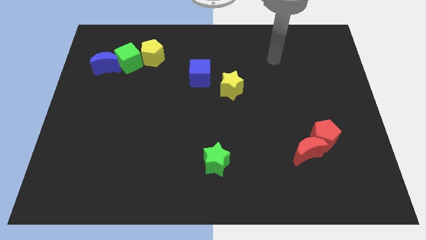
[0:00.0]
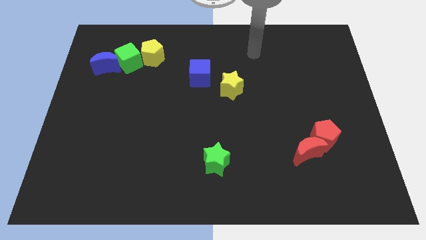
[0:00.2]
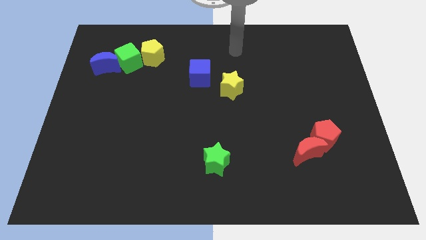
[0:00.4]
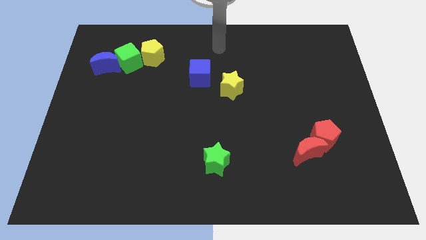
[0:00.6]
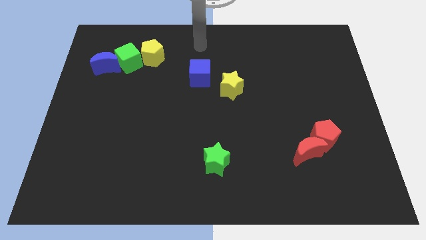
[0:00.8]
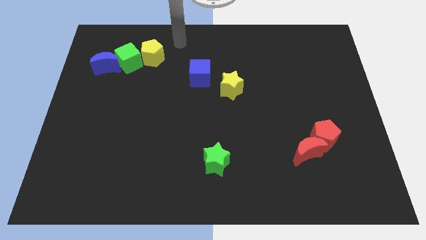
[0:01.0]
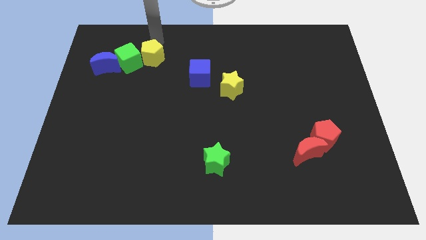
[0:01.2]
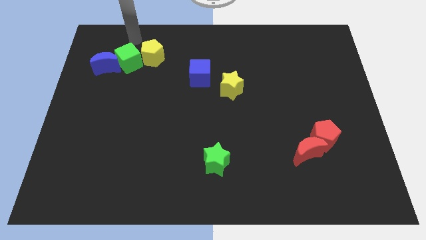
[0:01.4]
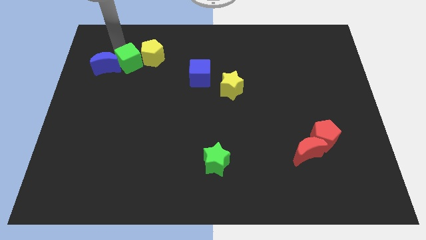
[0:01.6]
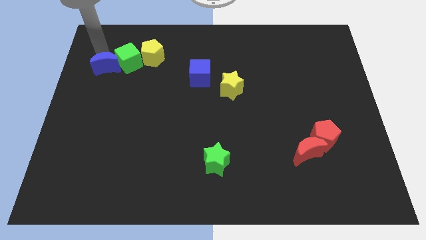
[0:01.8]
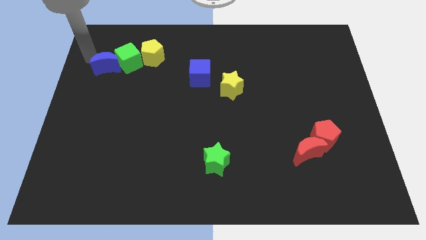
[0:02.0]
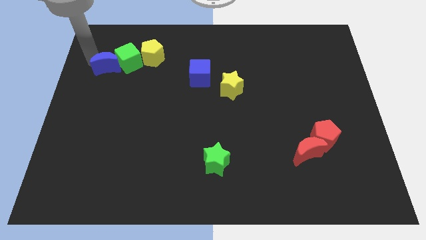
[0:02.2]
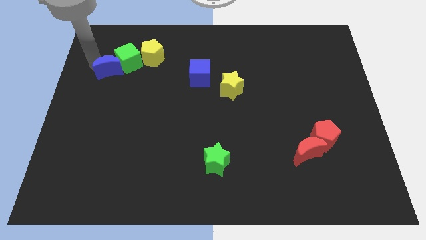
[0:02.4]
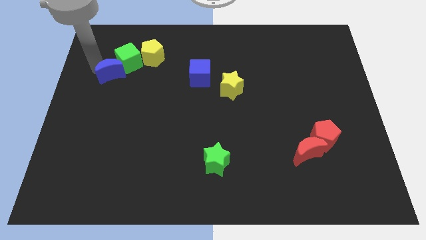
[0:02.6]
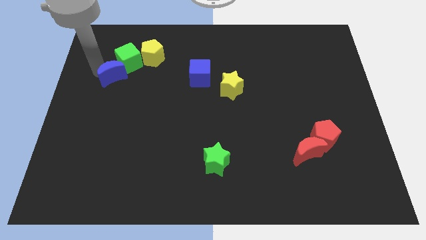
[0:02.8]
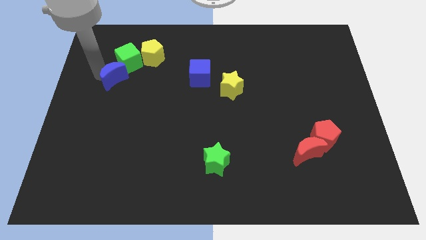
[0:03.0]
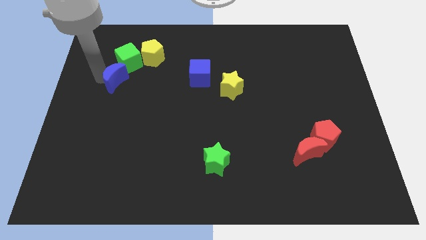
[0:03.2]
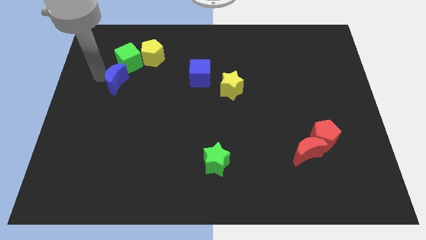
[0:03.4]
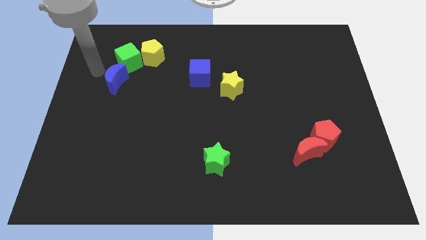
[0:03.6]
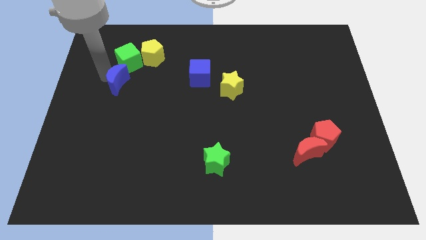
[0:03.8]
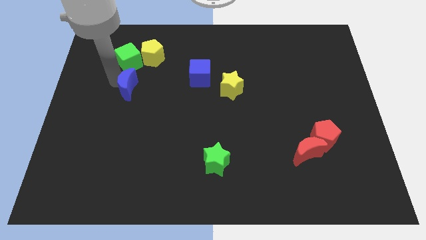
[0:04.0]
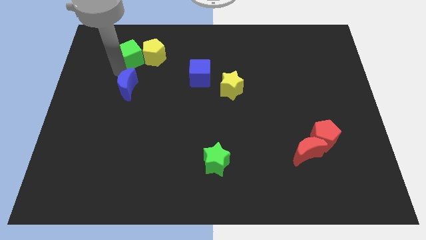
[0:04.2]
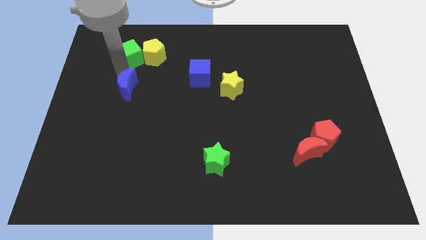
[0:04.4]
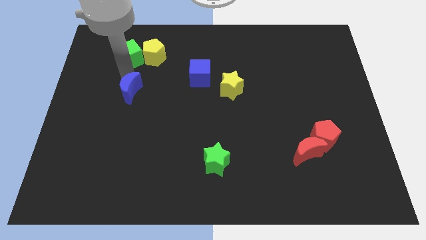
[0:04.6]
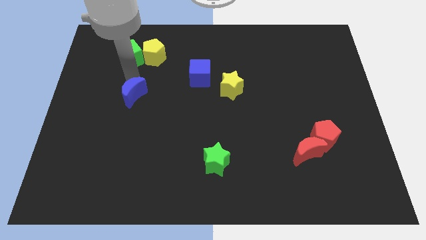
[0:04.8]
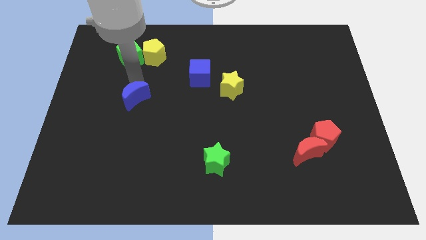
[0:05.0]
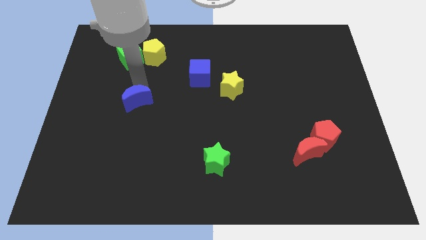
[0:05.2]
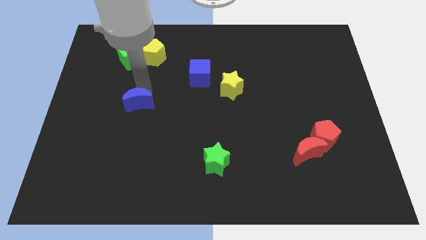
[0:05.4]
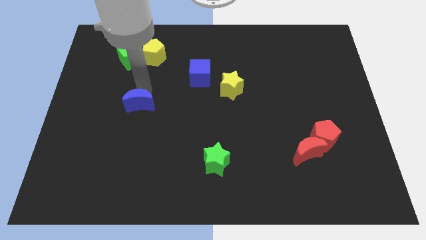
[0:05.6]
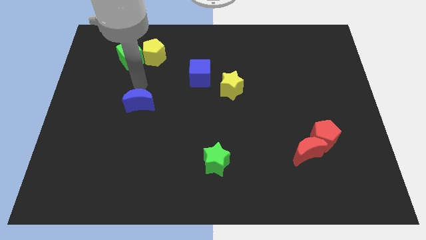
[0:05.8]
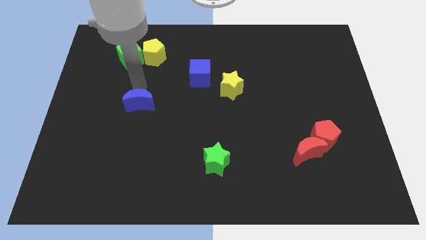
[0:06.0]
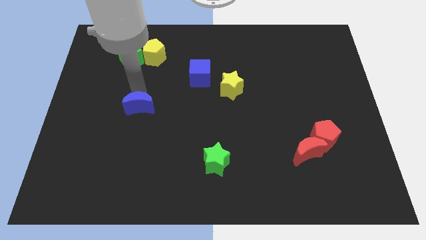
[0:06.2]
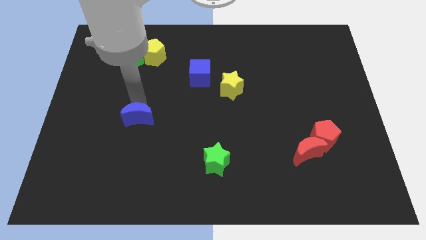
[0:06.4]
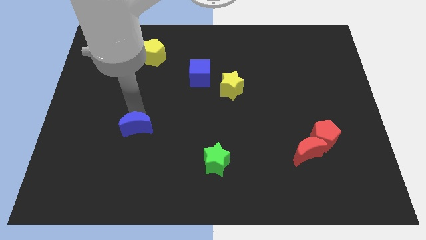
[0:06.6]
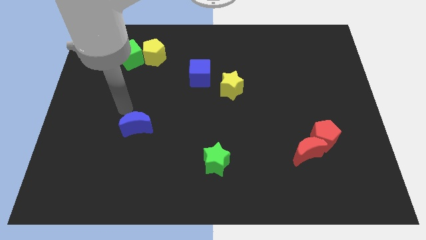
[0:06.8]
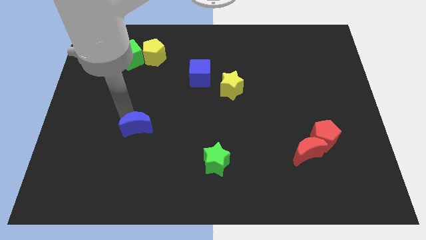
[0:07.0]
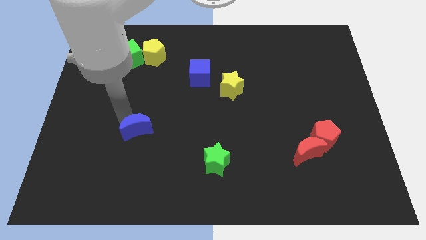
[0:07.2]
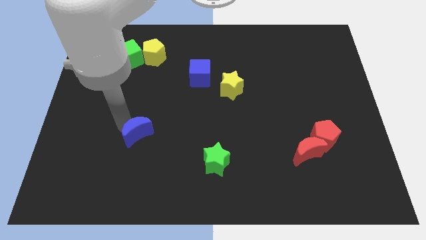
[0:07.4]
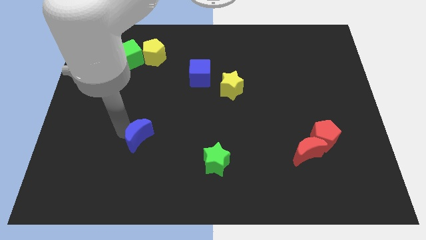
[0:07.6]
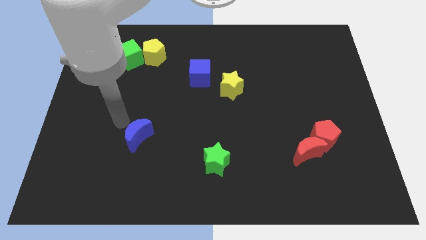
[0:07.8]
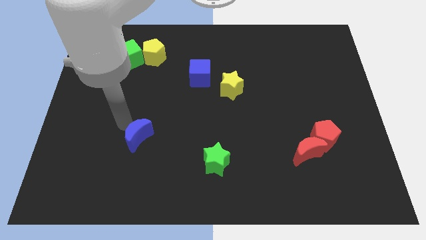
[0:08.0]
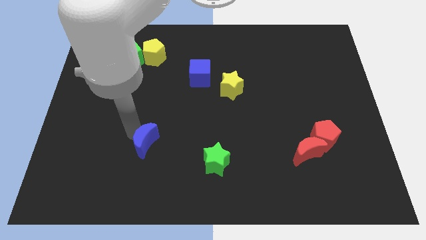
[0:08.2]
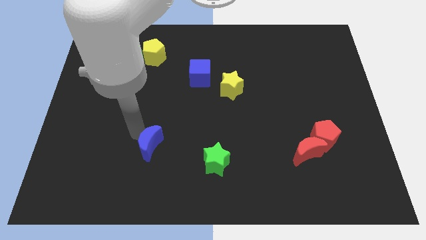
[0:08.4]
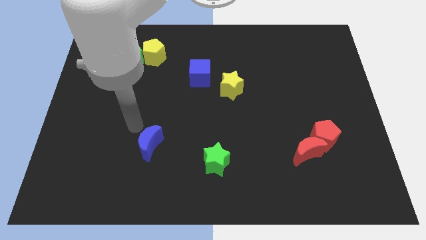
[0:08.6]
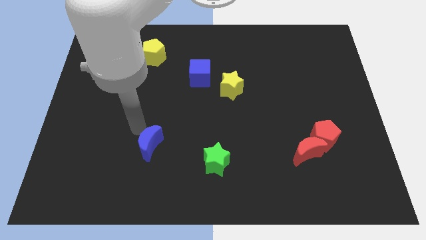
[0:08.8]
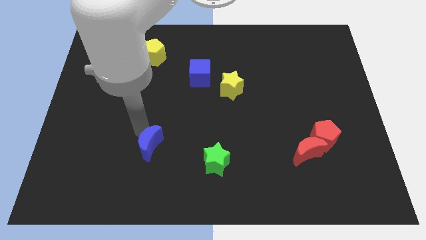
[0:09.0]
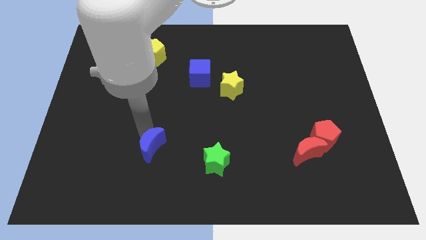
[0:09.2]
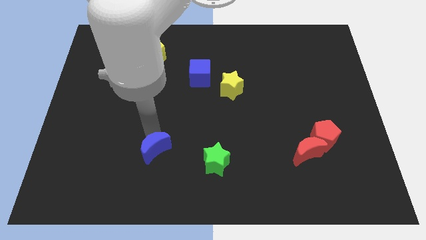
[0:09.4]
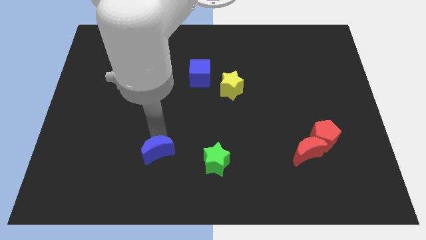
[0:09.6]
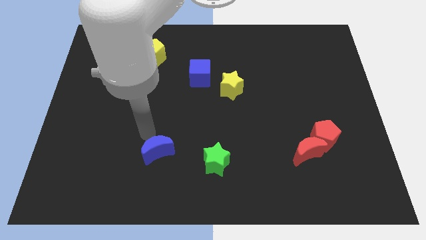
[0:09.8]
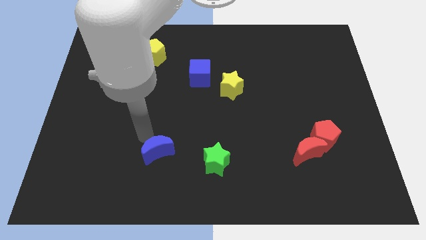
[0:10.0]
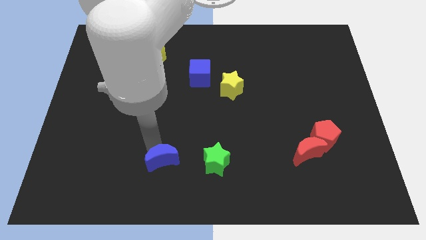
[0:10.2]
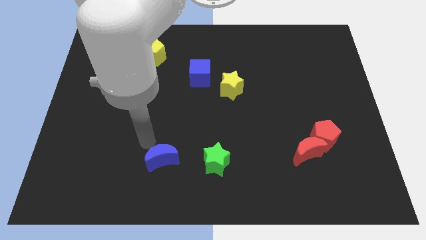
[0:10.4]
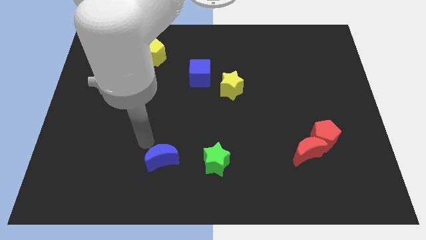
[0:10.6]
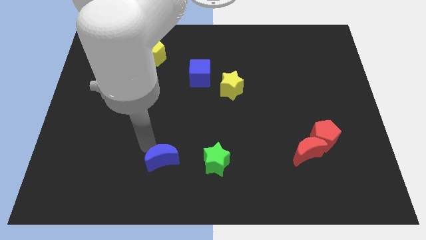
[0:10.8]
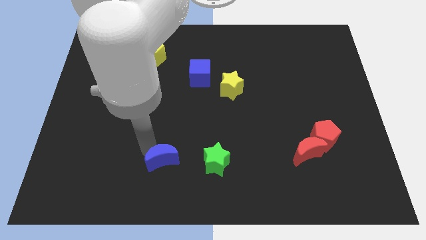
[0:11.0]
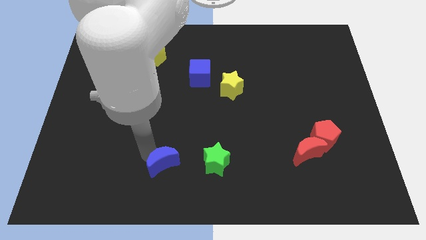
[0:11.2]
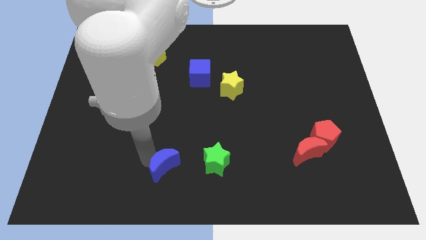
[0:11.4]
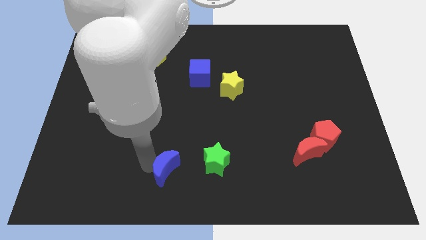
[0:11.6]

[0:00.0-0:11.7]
slide the blue moon to the bottom side

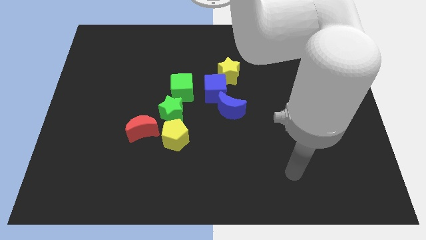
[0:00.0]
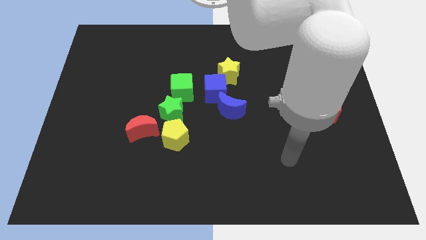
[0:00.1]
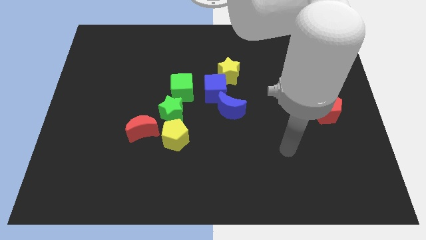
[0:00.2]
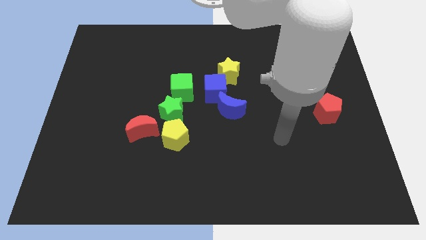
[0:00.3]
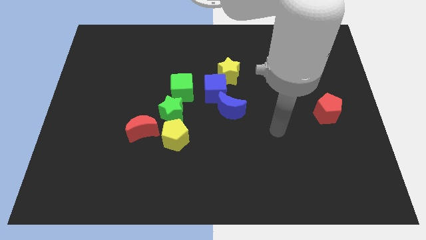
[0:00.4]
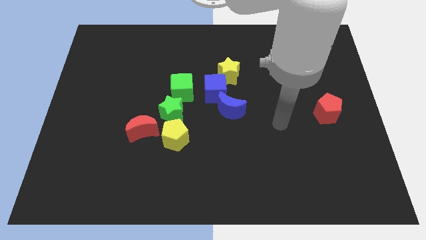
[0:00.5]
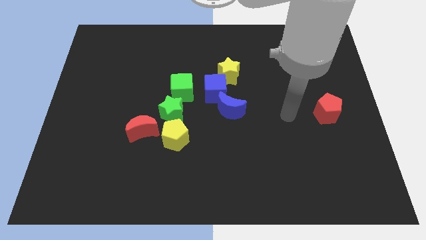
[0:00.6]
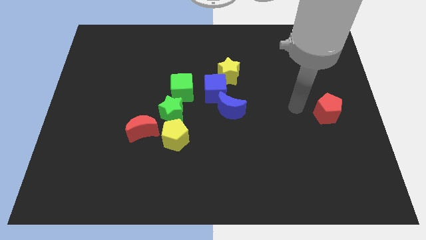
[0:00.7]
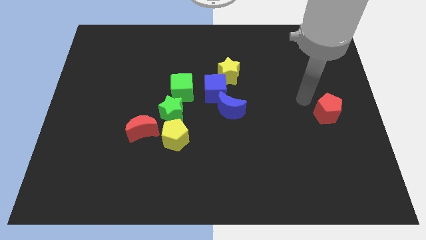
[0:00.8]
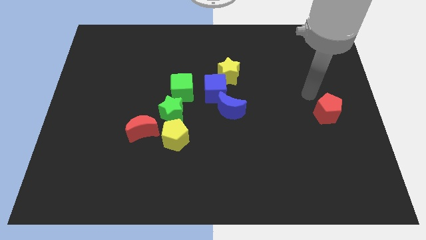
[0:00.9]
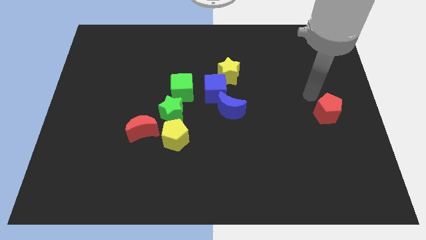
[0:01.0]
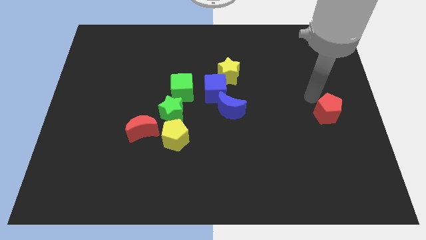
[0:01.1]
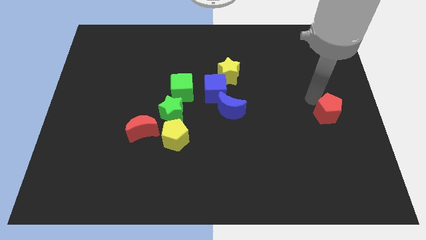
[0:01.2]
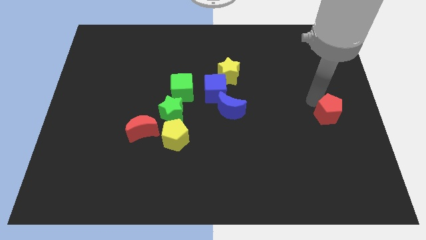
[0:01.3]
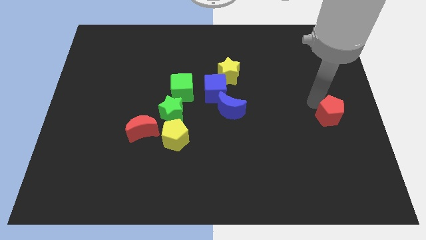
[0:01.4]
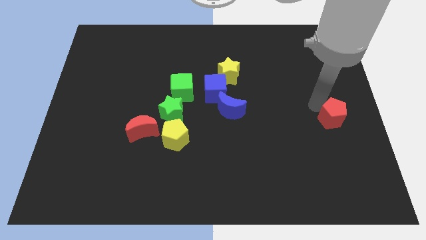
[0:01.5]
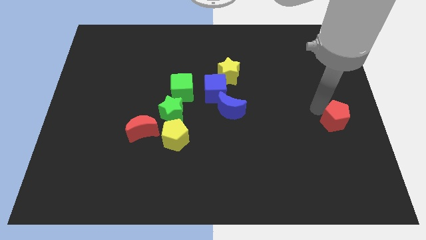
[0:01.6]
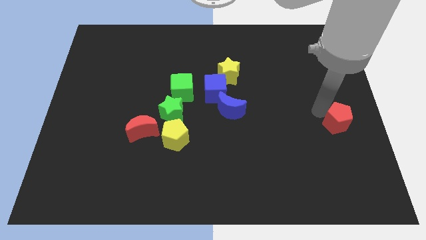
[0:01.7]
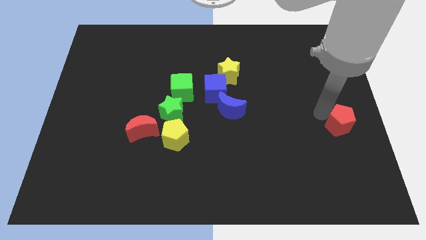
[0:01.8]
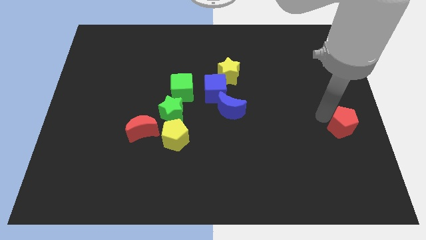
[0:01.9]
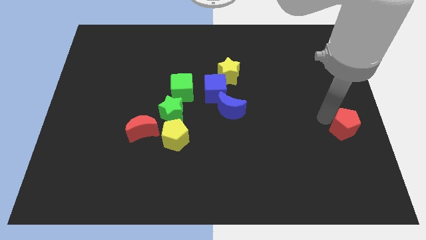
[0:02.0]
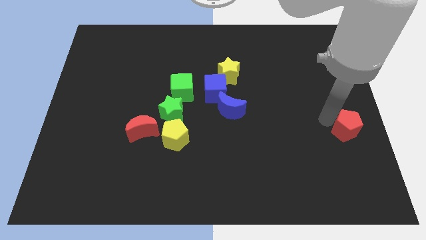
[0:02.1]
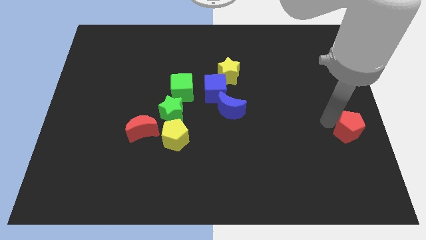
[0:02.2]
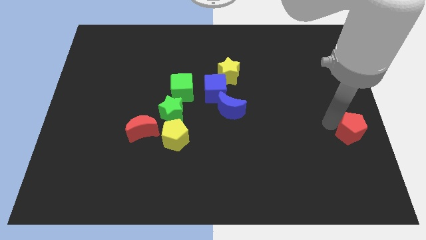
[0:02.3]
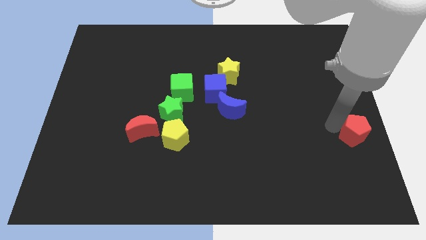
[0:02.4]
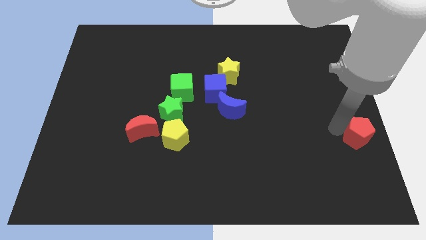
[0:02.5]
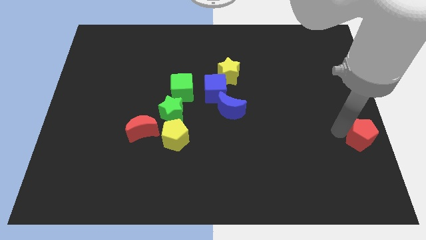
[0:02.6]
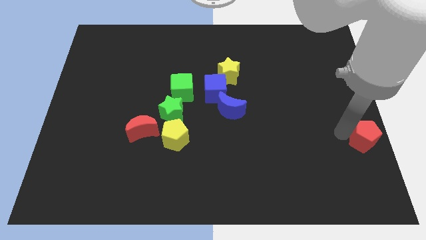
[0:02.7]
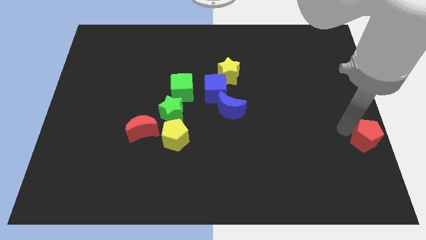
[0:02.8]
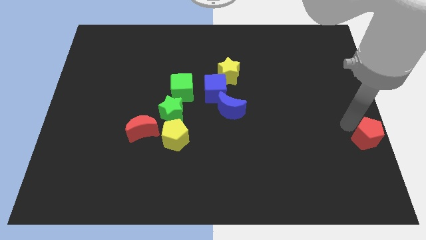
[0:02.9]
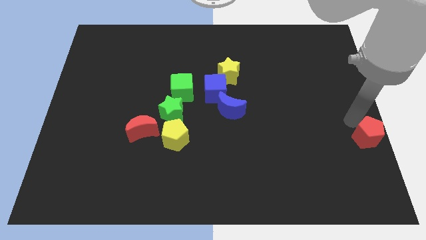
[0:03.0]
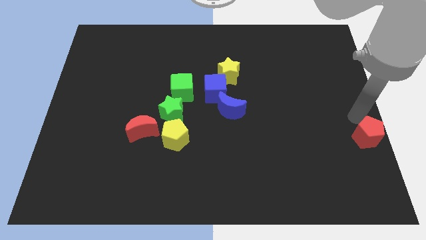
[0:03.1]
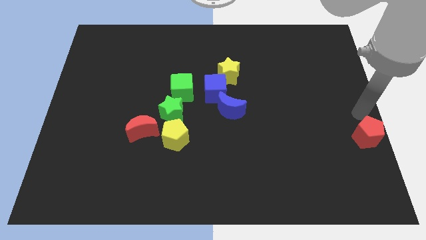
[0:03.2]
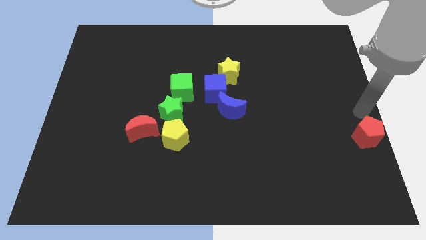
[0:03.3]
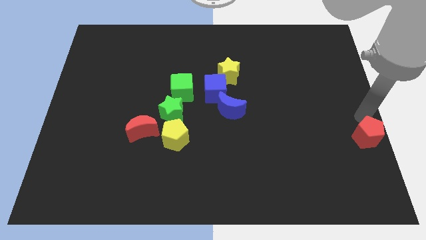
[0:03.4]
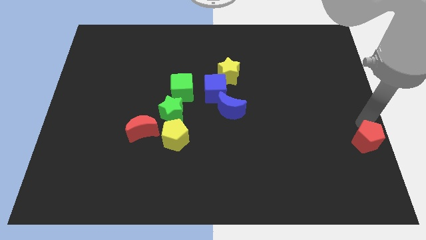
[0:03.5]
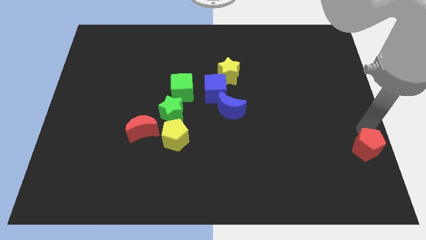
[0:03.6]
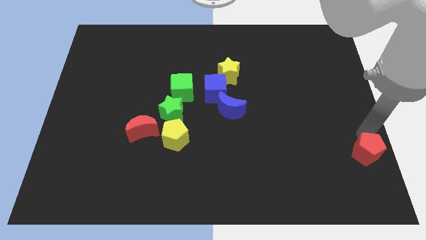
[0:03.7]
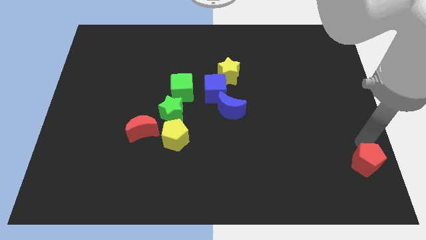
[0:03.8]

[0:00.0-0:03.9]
move the red pentagon to the bottom right corner
